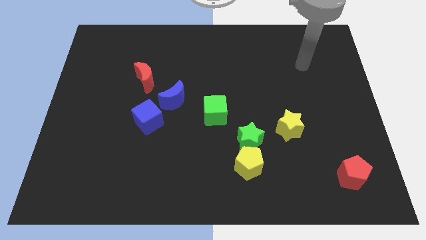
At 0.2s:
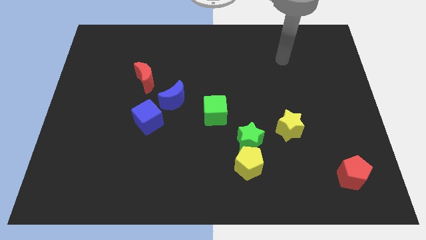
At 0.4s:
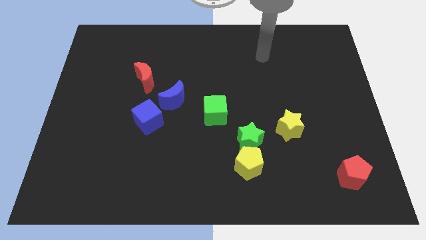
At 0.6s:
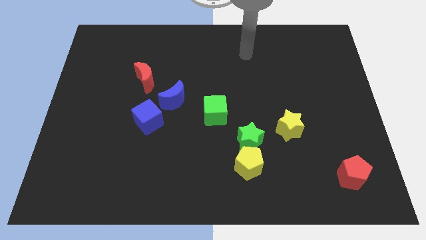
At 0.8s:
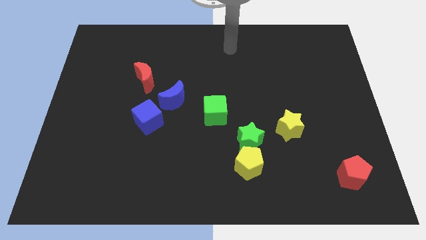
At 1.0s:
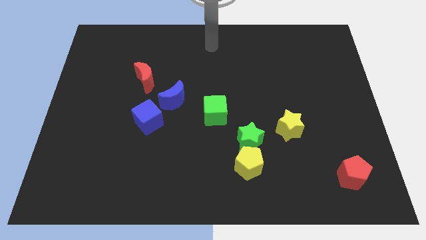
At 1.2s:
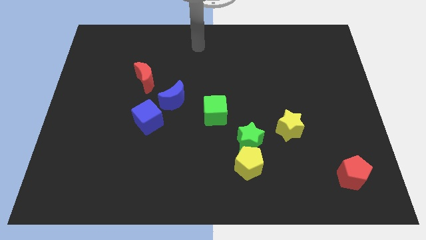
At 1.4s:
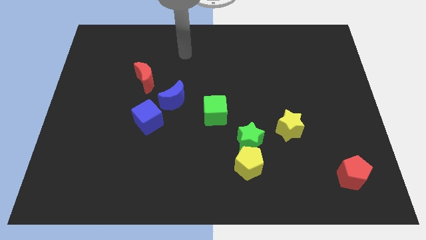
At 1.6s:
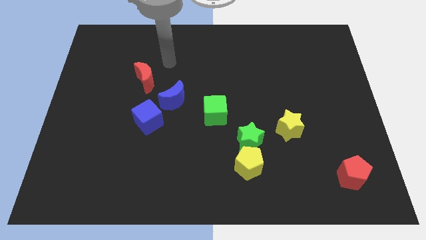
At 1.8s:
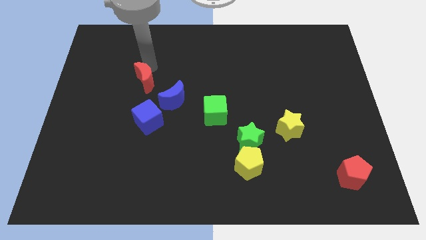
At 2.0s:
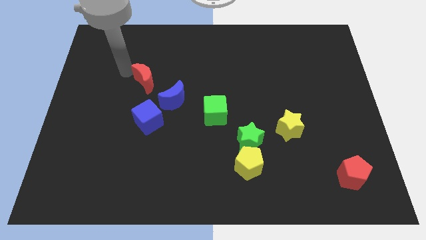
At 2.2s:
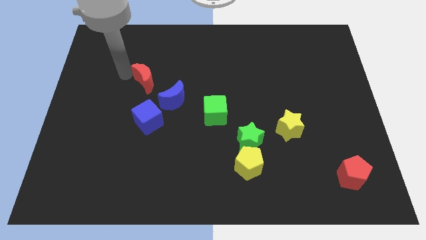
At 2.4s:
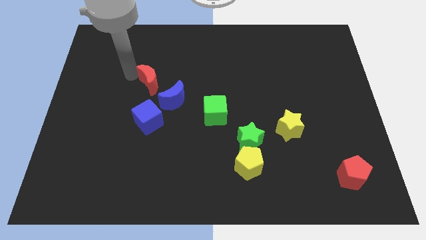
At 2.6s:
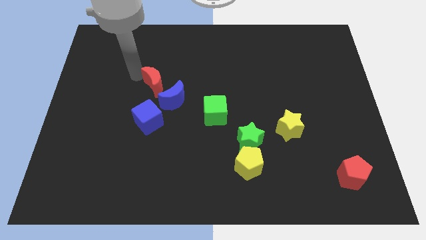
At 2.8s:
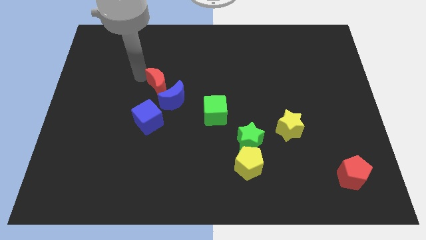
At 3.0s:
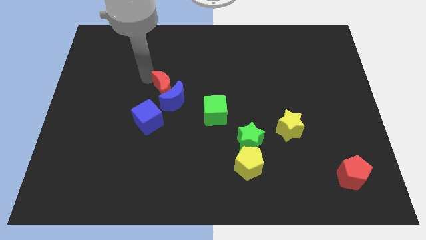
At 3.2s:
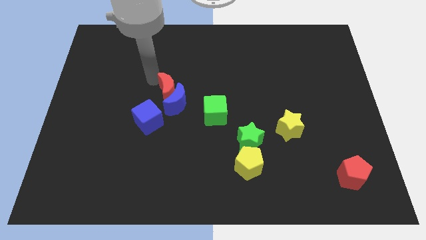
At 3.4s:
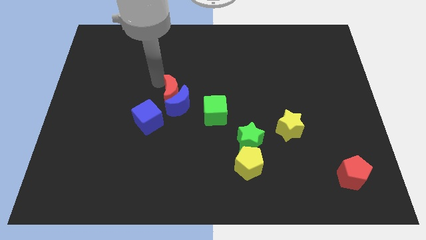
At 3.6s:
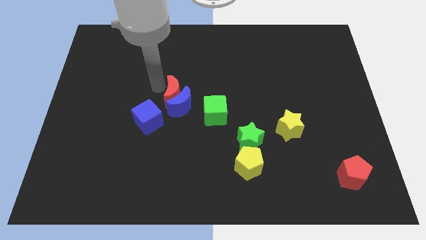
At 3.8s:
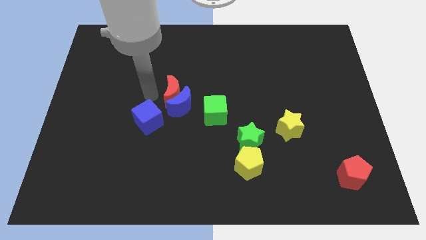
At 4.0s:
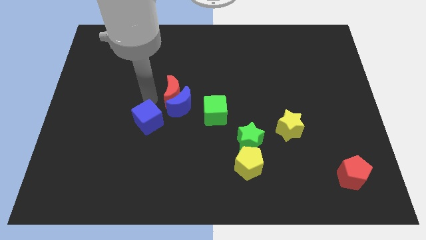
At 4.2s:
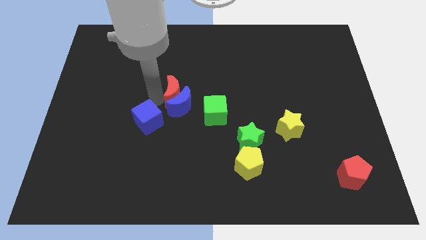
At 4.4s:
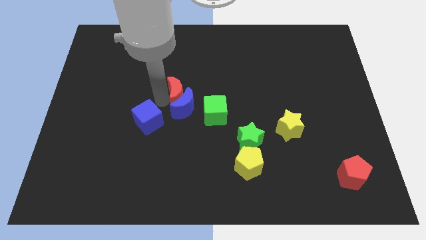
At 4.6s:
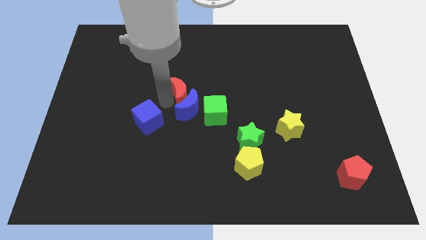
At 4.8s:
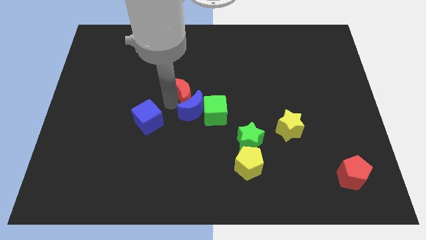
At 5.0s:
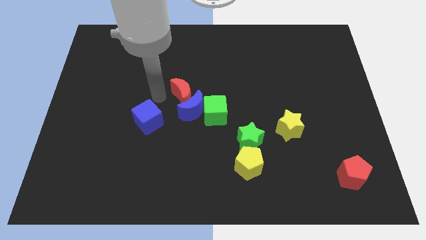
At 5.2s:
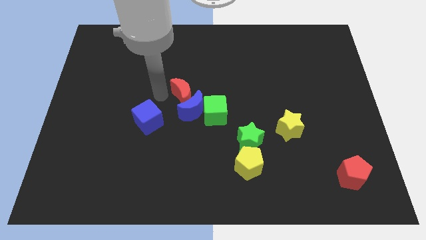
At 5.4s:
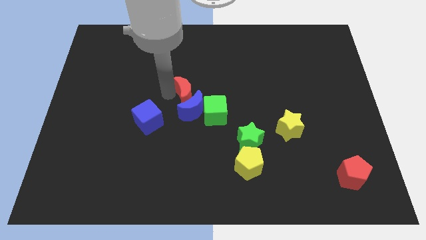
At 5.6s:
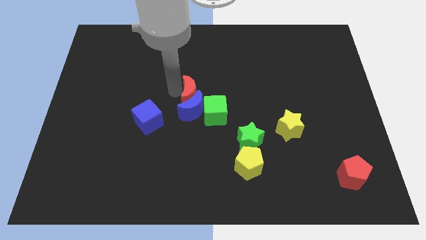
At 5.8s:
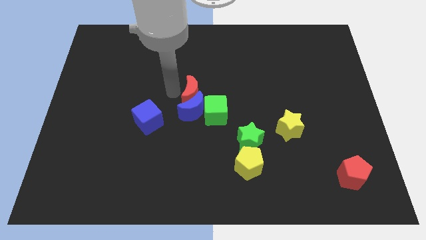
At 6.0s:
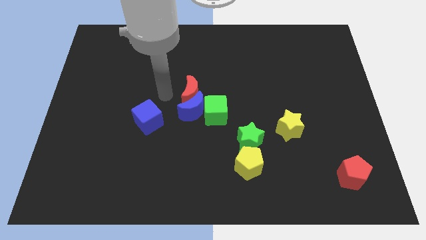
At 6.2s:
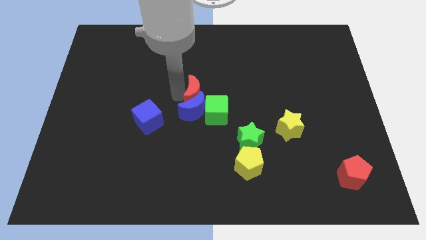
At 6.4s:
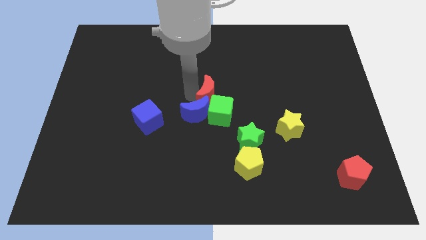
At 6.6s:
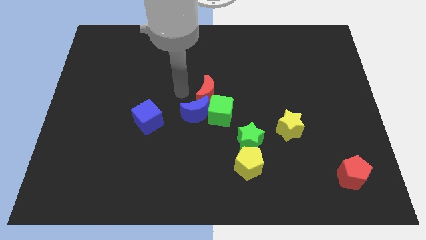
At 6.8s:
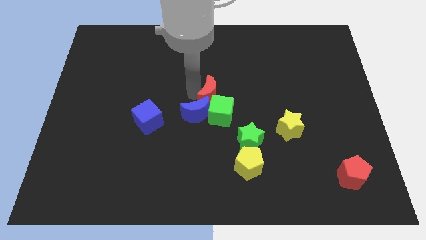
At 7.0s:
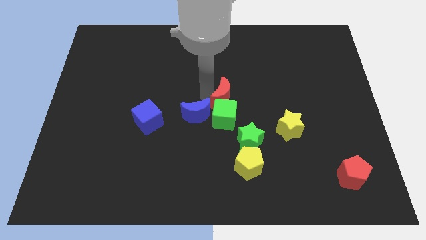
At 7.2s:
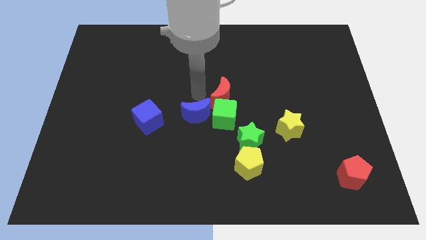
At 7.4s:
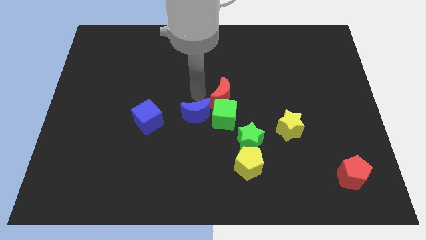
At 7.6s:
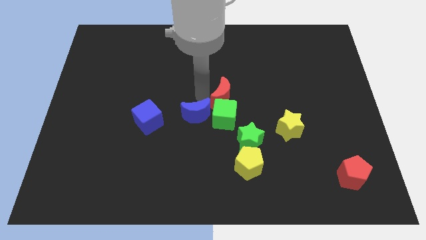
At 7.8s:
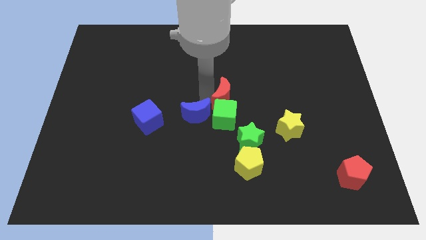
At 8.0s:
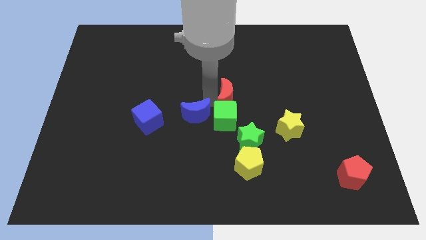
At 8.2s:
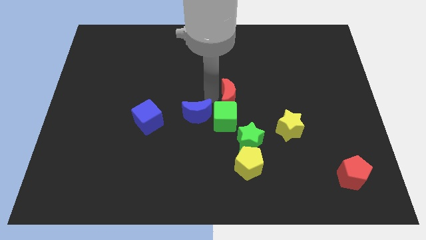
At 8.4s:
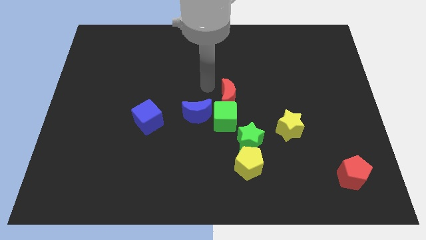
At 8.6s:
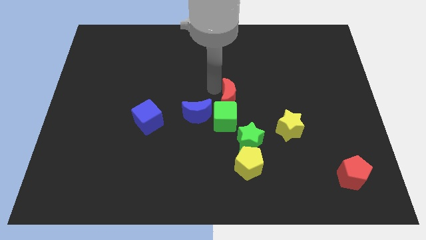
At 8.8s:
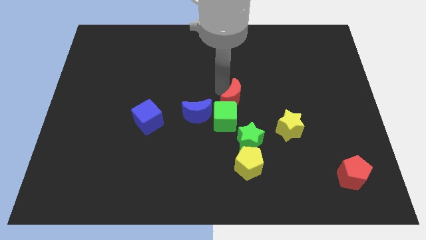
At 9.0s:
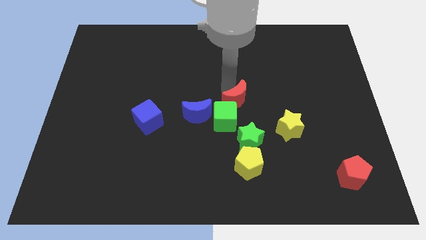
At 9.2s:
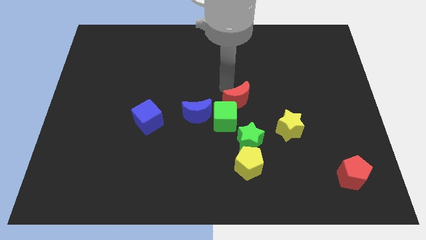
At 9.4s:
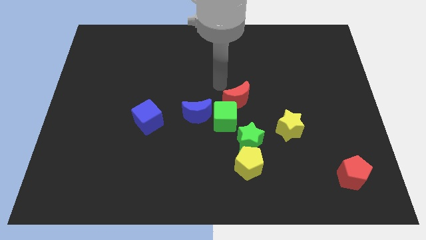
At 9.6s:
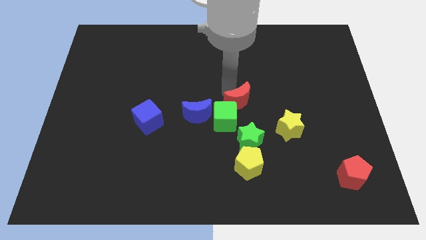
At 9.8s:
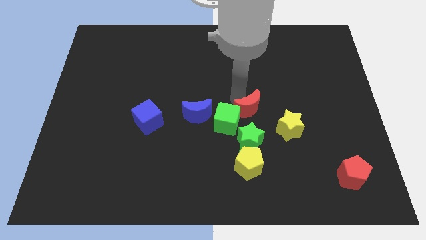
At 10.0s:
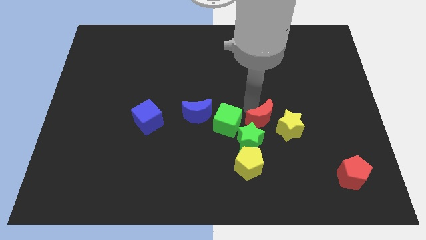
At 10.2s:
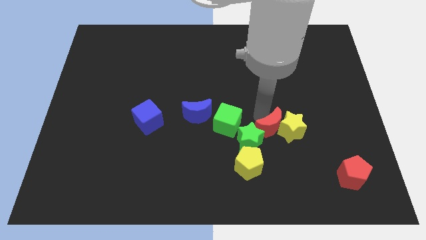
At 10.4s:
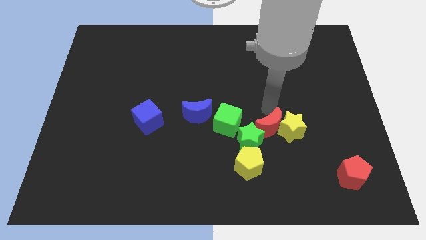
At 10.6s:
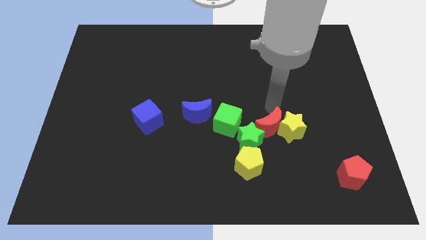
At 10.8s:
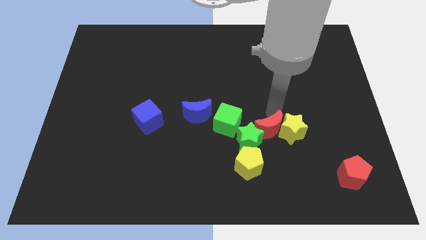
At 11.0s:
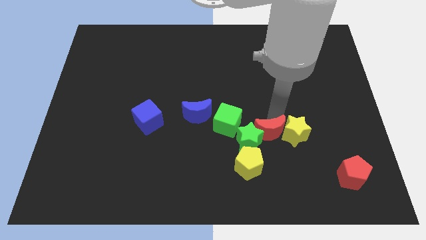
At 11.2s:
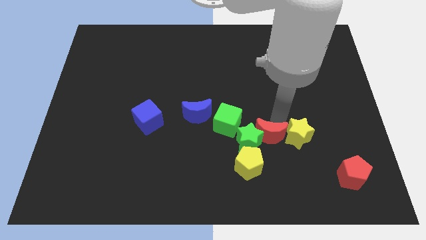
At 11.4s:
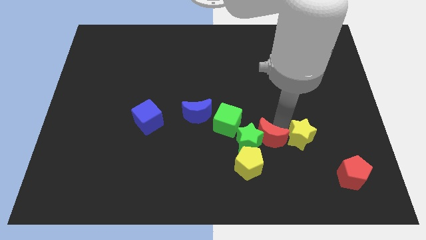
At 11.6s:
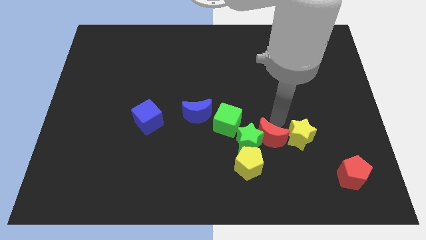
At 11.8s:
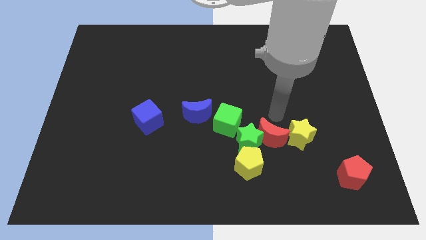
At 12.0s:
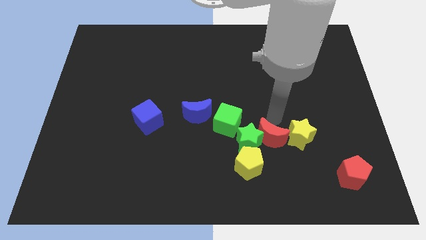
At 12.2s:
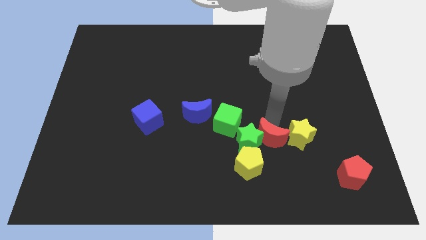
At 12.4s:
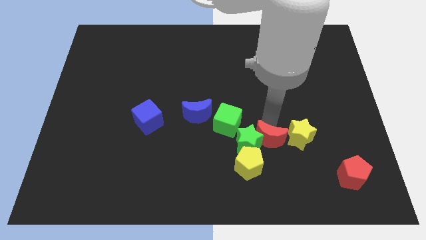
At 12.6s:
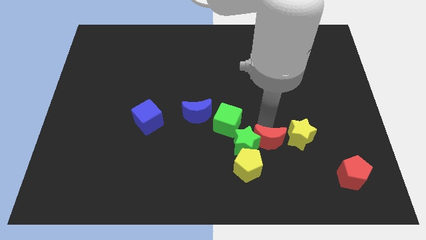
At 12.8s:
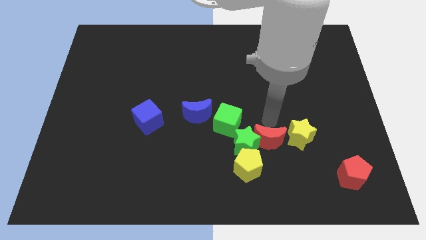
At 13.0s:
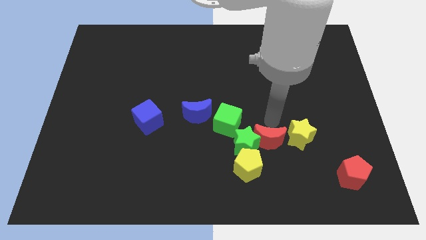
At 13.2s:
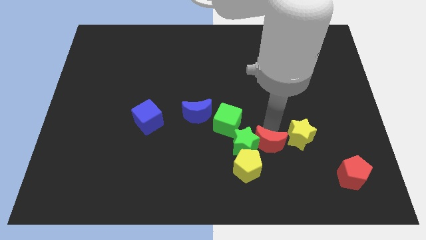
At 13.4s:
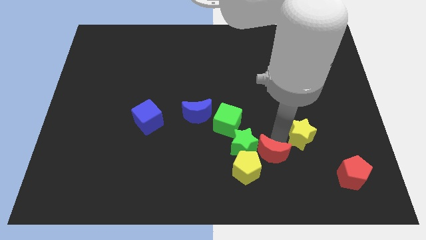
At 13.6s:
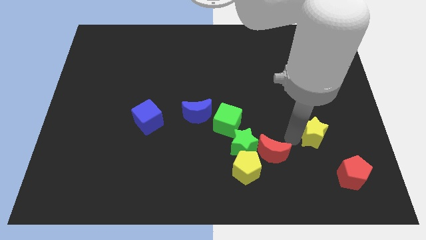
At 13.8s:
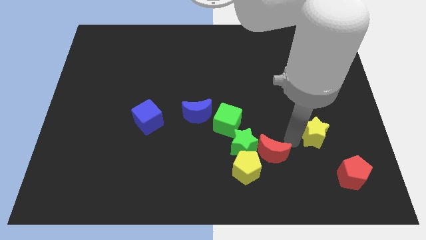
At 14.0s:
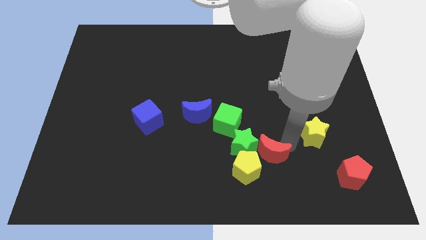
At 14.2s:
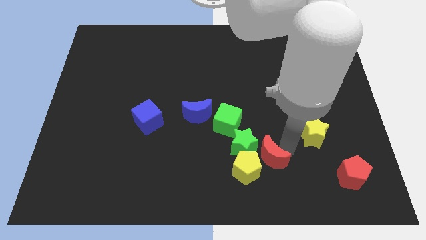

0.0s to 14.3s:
move the red moon towards the yellow pentagon

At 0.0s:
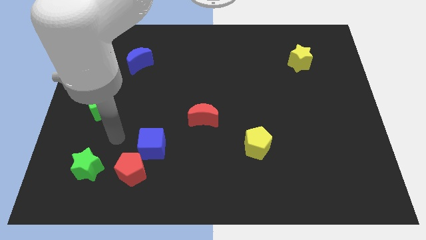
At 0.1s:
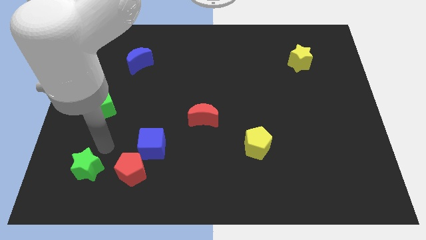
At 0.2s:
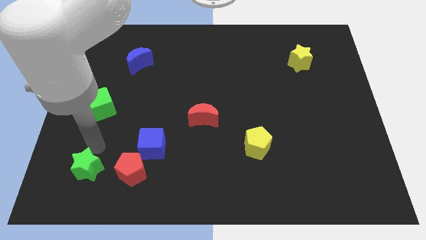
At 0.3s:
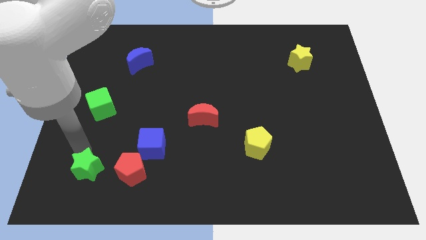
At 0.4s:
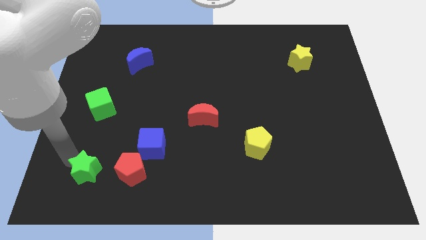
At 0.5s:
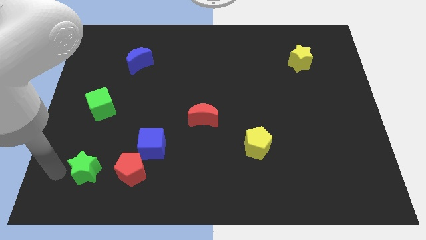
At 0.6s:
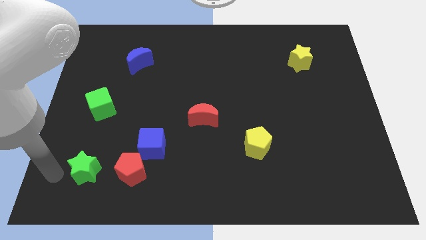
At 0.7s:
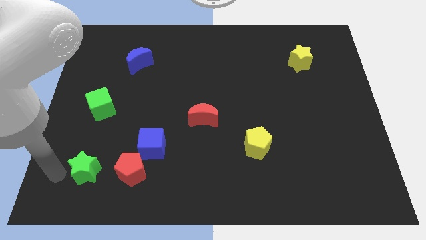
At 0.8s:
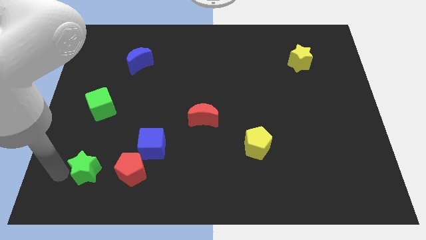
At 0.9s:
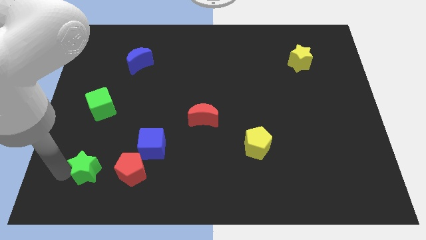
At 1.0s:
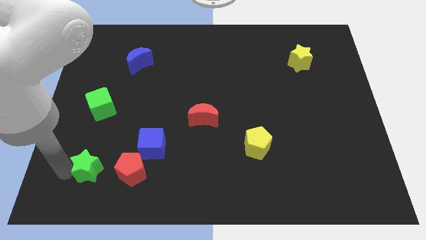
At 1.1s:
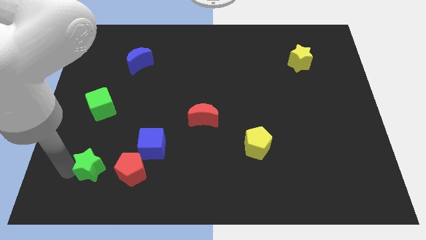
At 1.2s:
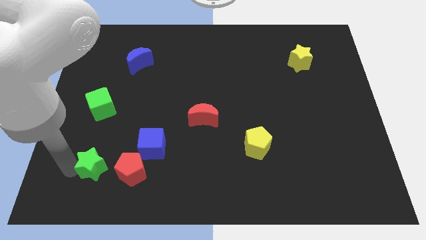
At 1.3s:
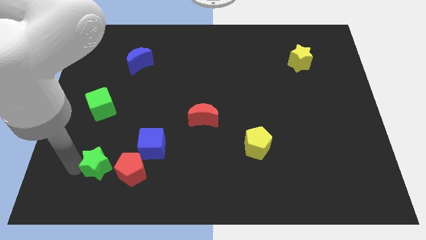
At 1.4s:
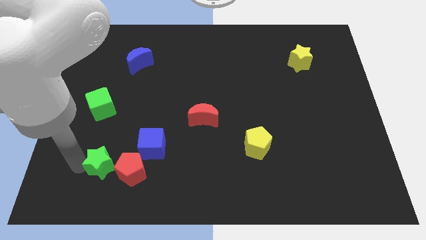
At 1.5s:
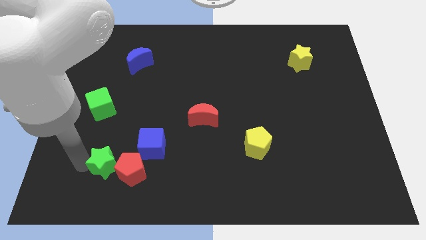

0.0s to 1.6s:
slide the green star to the red pentagon

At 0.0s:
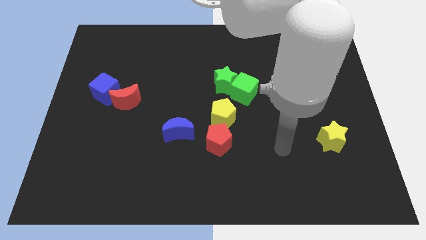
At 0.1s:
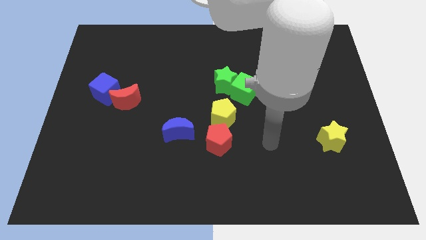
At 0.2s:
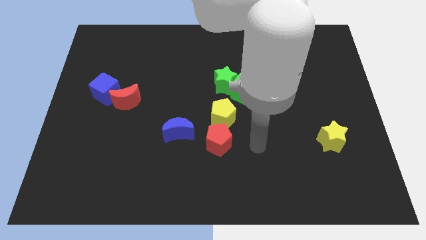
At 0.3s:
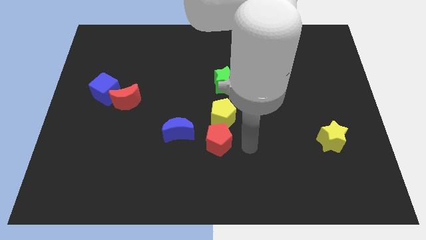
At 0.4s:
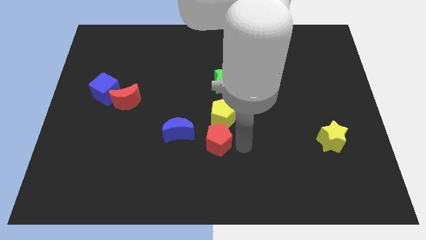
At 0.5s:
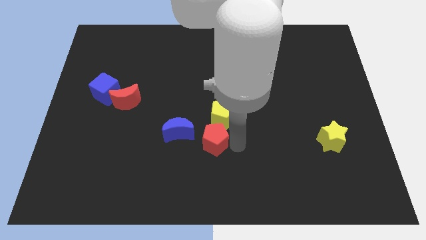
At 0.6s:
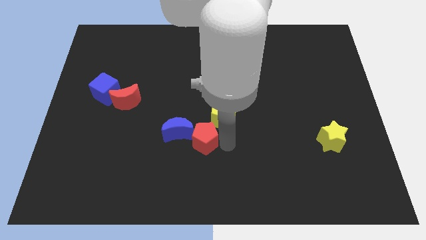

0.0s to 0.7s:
push the red pentagon next to the blue moon
